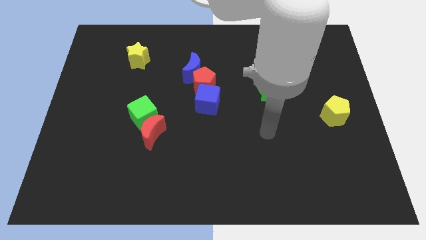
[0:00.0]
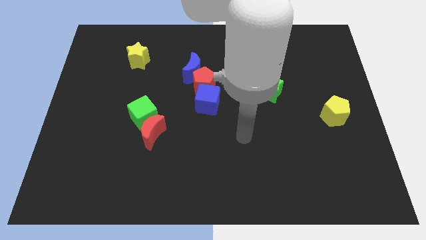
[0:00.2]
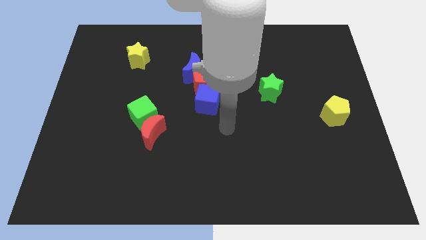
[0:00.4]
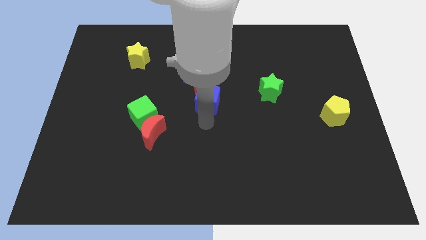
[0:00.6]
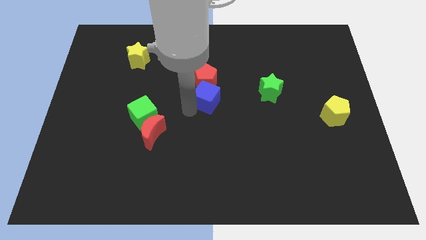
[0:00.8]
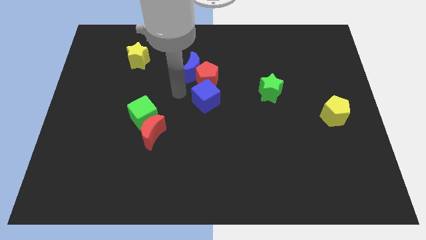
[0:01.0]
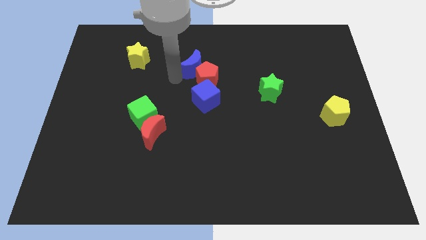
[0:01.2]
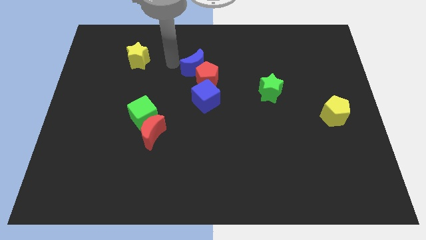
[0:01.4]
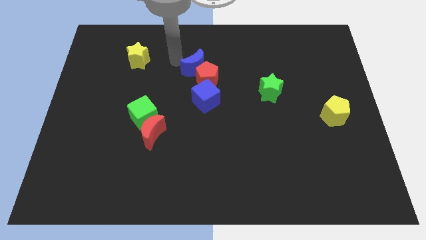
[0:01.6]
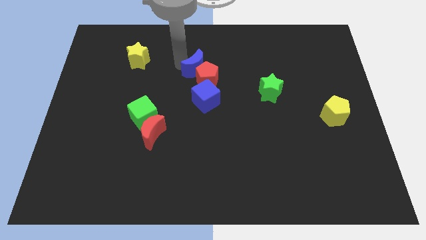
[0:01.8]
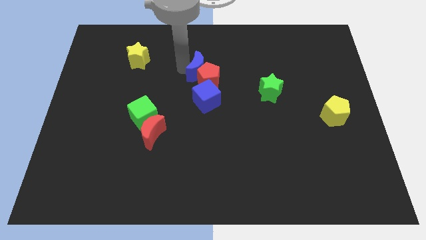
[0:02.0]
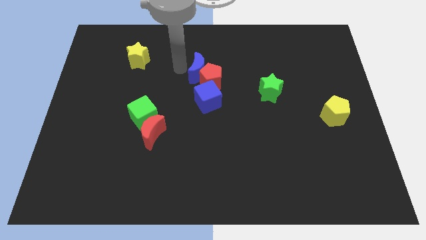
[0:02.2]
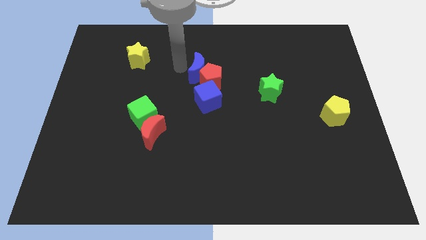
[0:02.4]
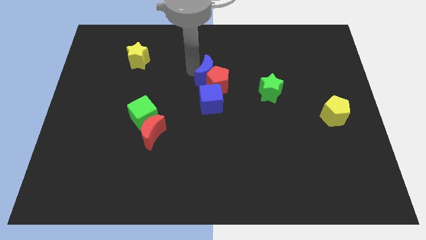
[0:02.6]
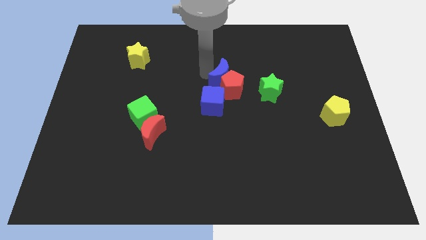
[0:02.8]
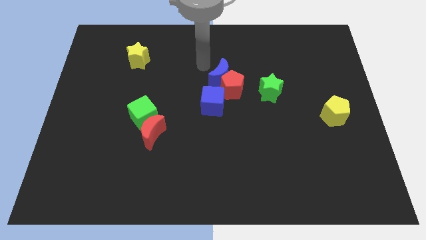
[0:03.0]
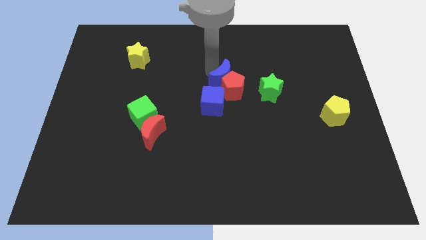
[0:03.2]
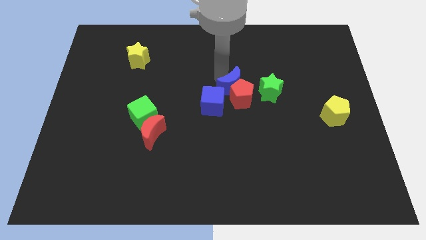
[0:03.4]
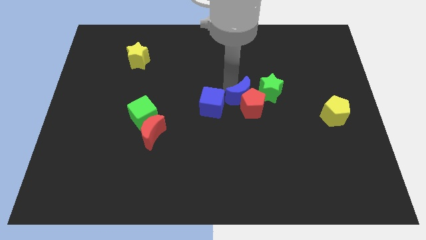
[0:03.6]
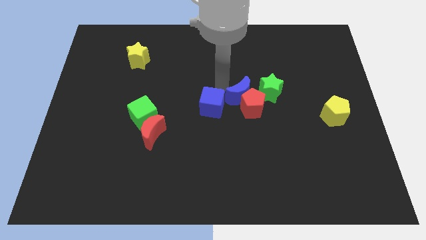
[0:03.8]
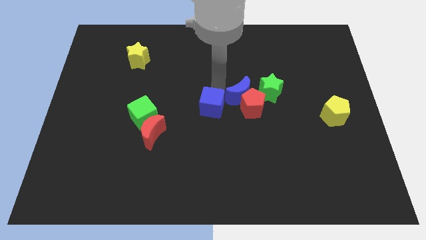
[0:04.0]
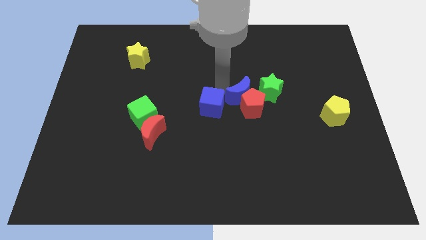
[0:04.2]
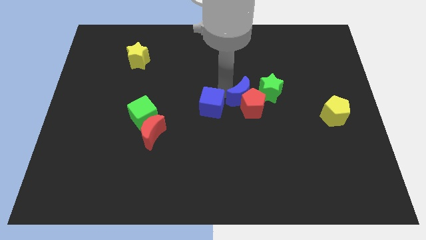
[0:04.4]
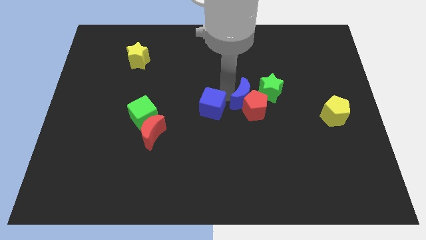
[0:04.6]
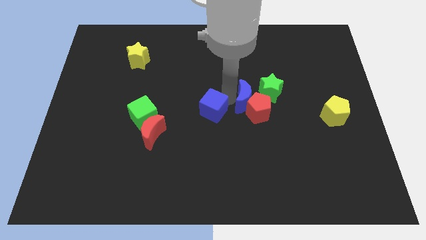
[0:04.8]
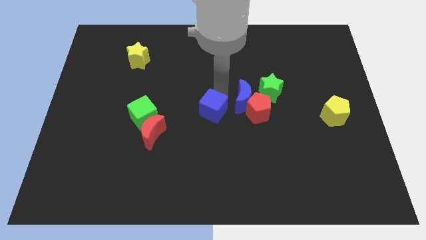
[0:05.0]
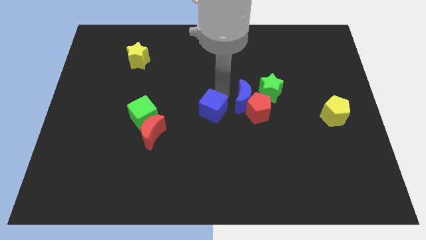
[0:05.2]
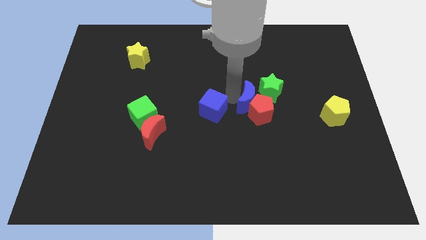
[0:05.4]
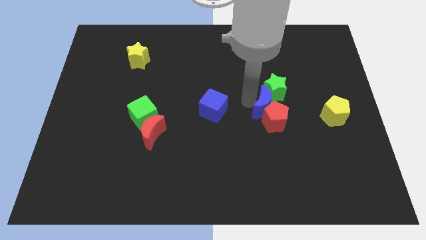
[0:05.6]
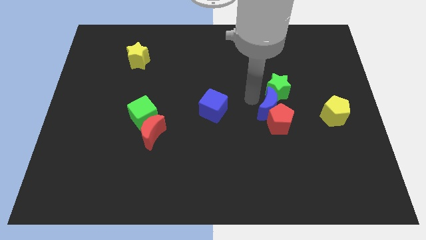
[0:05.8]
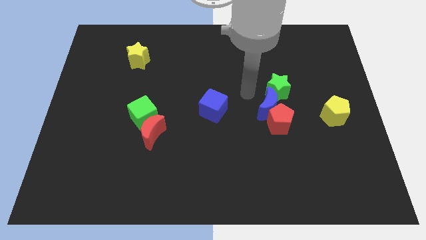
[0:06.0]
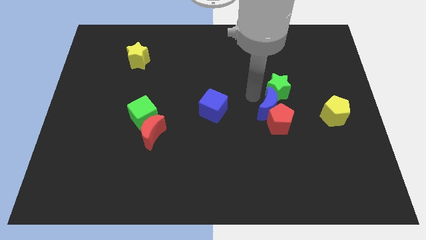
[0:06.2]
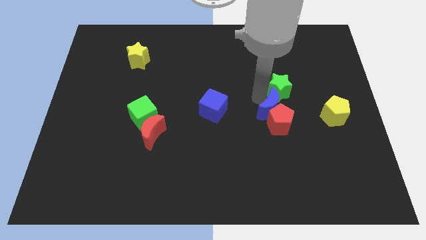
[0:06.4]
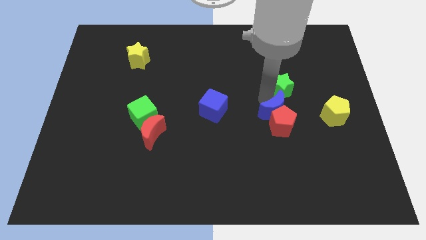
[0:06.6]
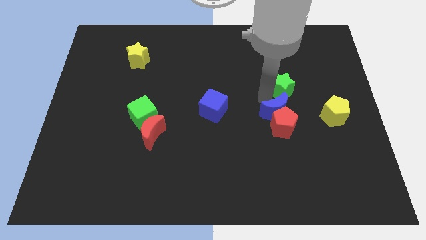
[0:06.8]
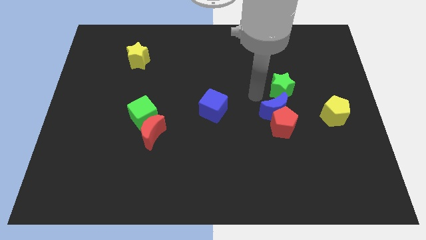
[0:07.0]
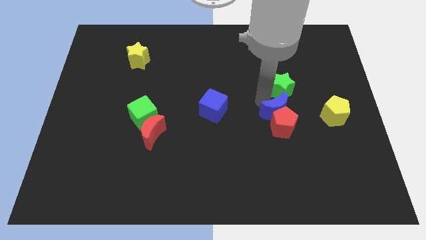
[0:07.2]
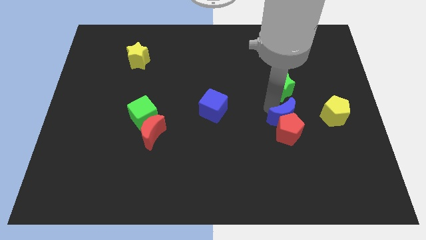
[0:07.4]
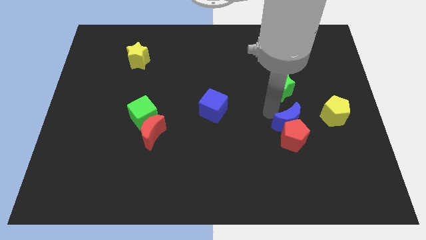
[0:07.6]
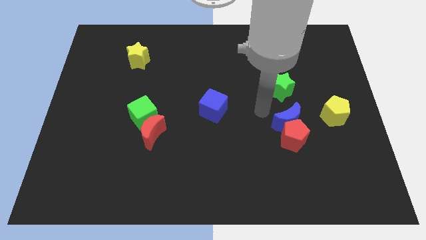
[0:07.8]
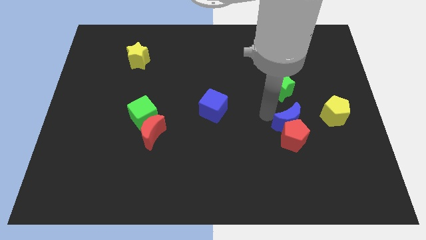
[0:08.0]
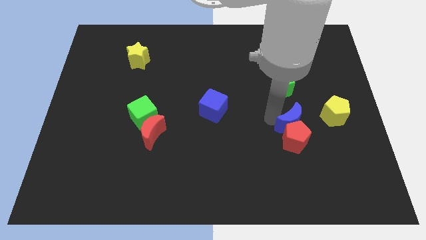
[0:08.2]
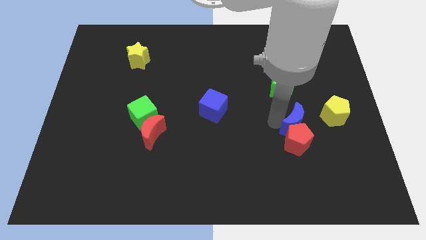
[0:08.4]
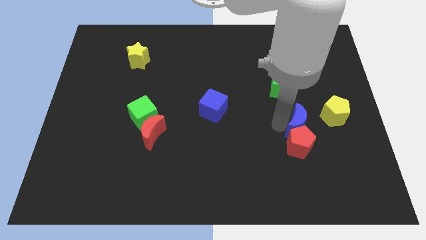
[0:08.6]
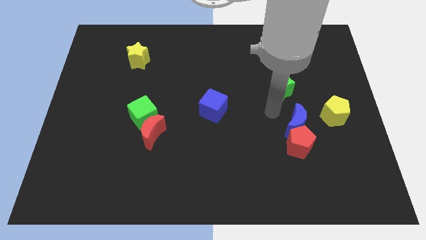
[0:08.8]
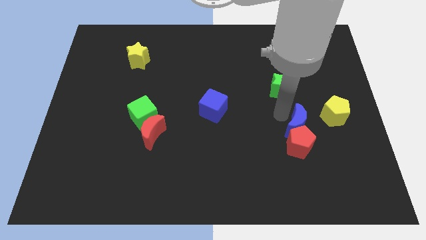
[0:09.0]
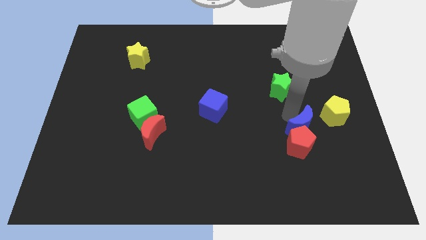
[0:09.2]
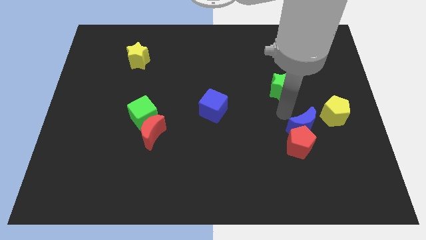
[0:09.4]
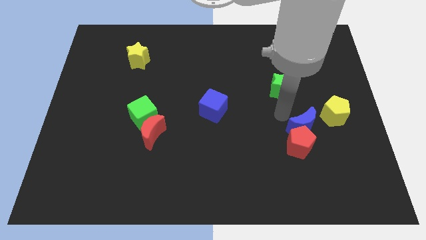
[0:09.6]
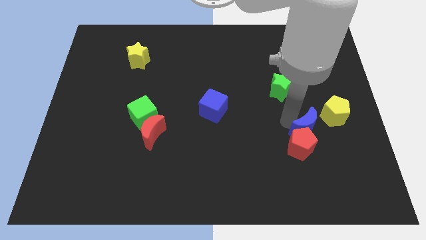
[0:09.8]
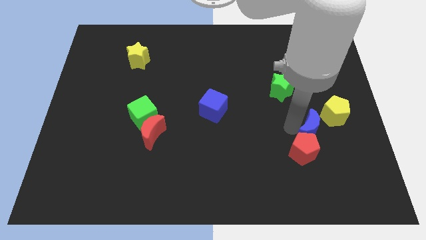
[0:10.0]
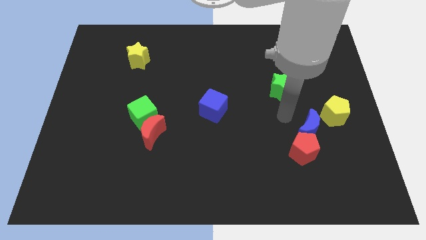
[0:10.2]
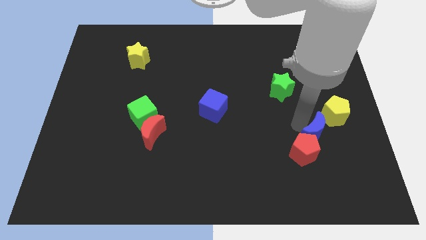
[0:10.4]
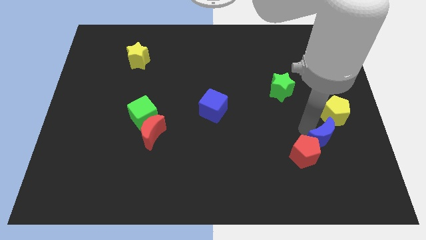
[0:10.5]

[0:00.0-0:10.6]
push the blue moon below the yellow pentagon

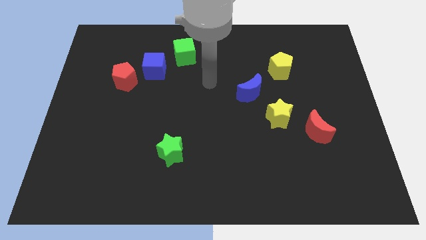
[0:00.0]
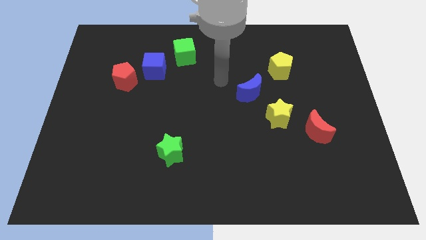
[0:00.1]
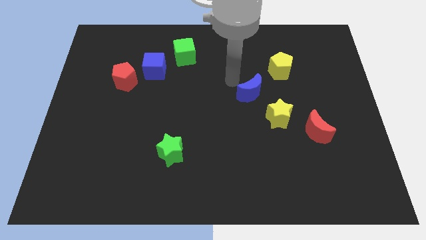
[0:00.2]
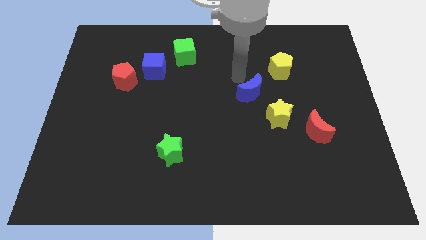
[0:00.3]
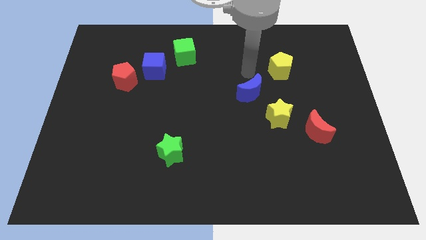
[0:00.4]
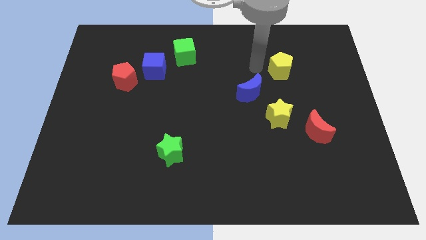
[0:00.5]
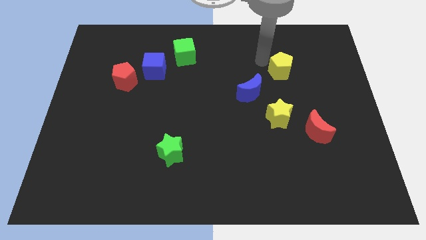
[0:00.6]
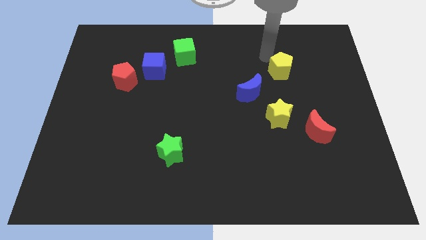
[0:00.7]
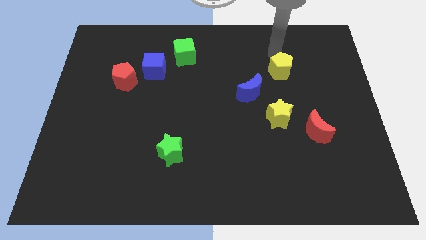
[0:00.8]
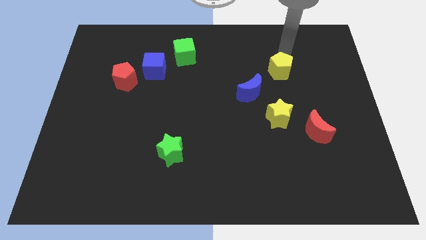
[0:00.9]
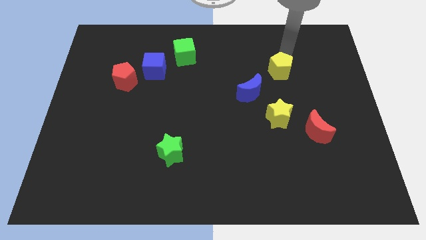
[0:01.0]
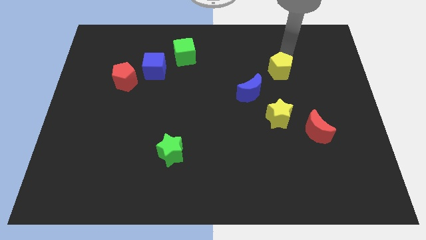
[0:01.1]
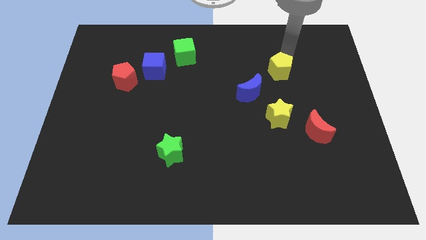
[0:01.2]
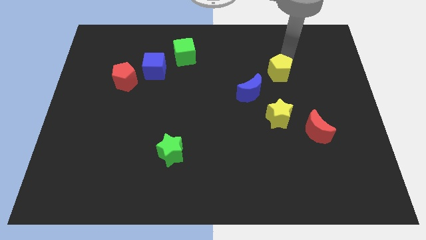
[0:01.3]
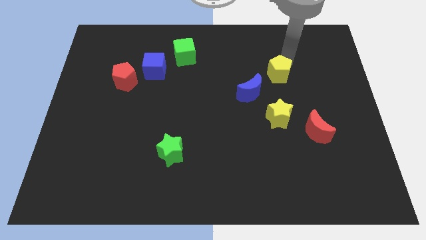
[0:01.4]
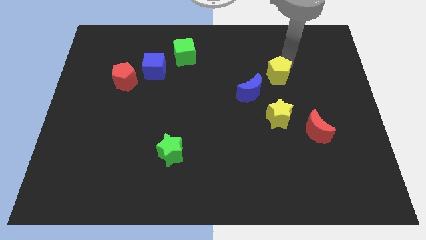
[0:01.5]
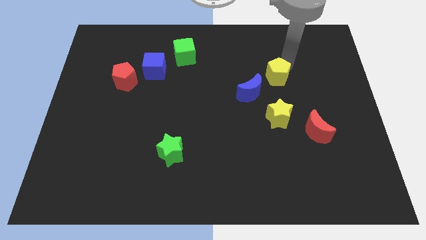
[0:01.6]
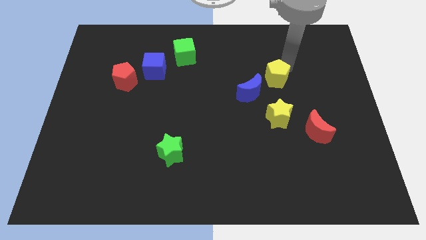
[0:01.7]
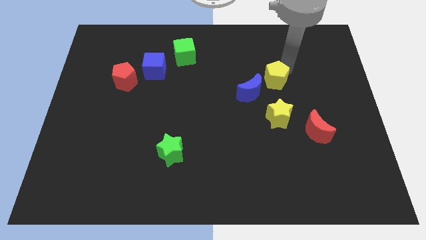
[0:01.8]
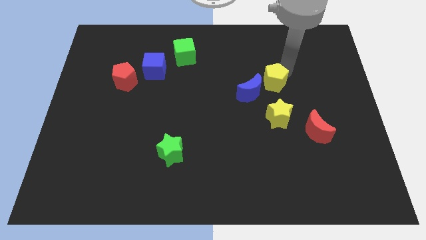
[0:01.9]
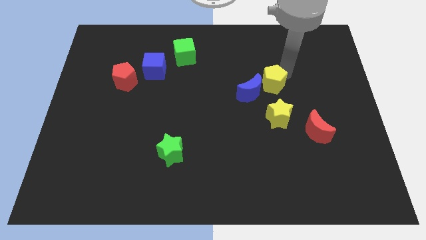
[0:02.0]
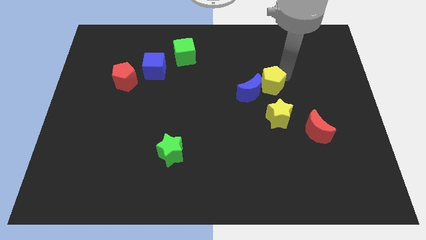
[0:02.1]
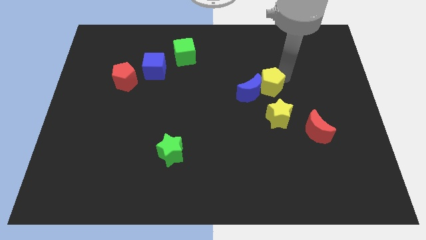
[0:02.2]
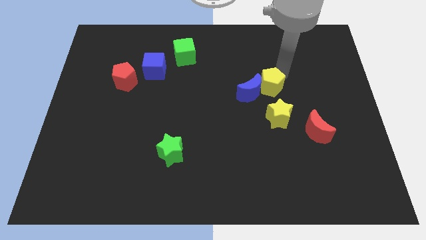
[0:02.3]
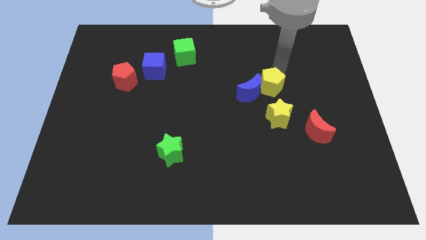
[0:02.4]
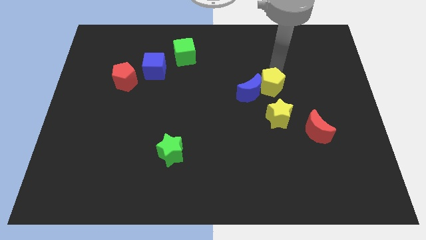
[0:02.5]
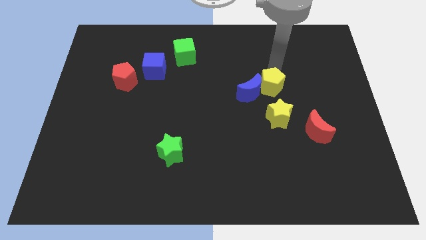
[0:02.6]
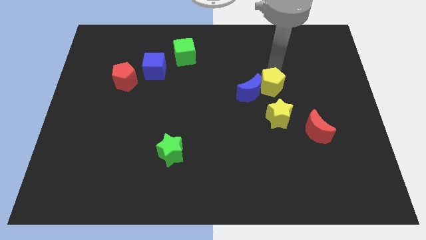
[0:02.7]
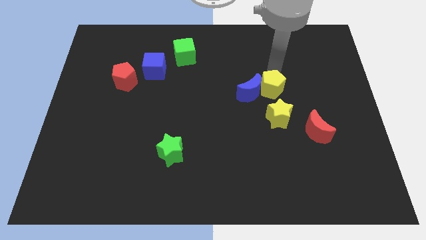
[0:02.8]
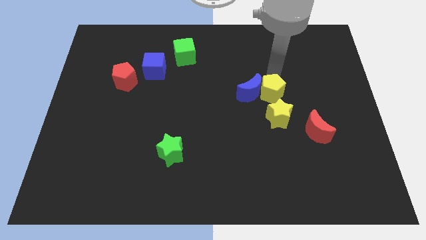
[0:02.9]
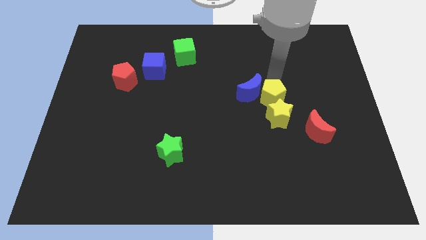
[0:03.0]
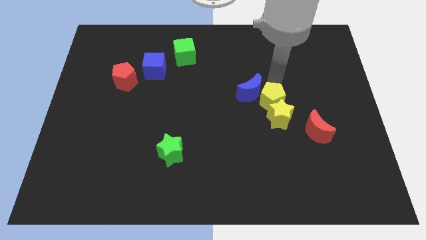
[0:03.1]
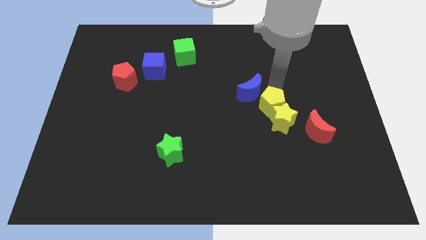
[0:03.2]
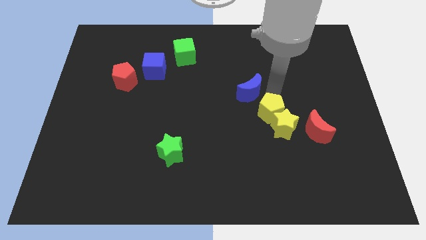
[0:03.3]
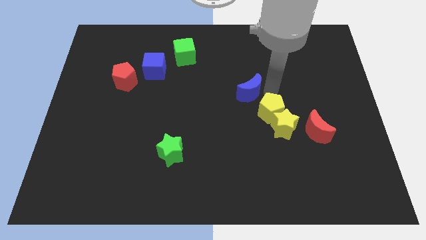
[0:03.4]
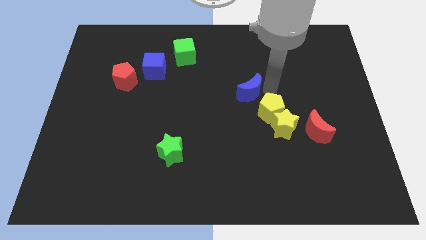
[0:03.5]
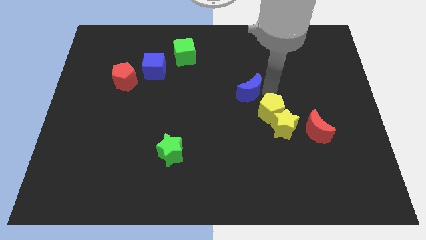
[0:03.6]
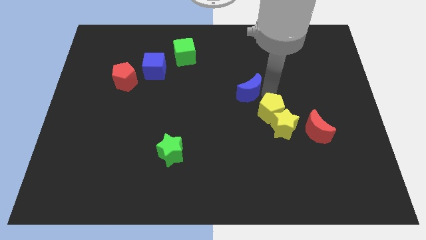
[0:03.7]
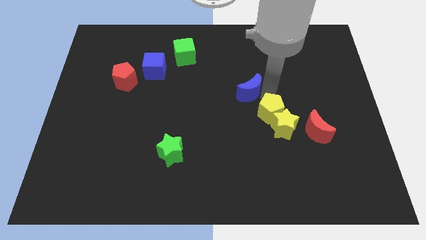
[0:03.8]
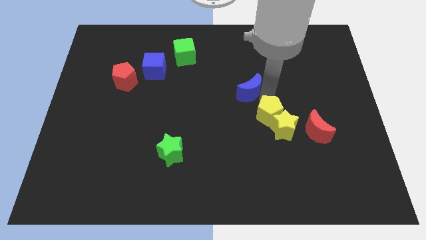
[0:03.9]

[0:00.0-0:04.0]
move the yellow pentagon left of the red moon
